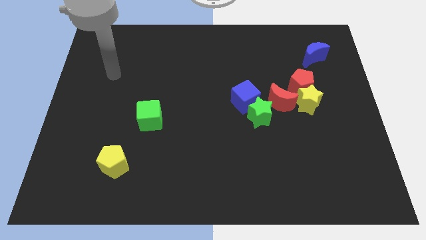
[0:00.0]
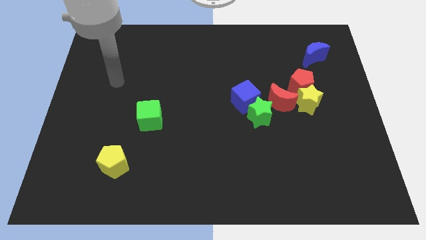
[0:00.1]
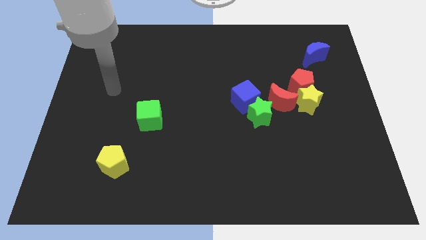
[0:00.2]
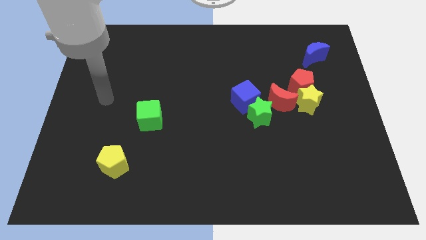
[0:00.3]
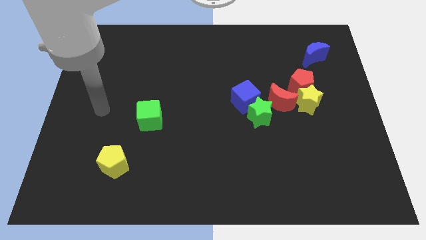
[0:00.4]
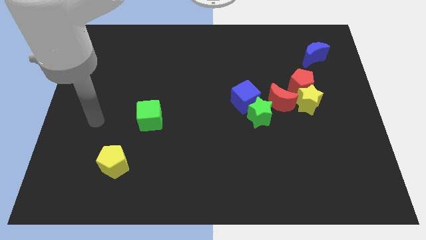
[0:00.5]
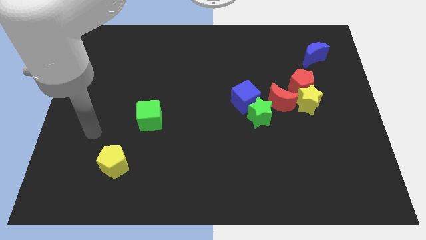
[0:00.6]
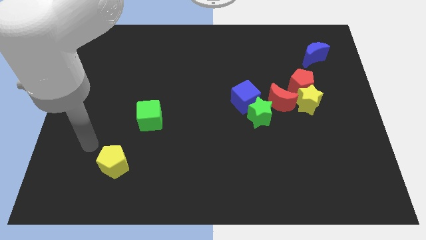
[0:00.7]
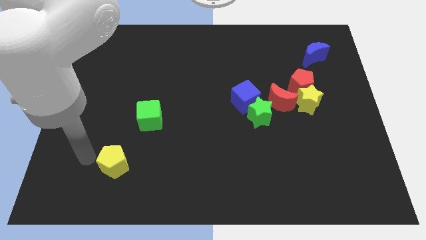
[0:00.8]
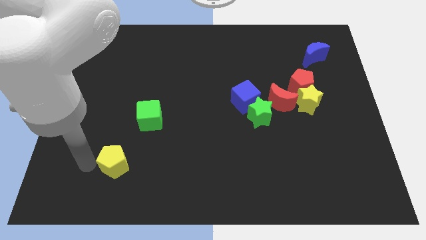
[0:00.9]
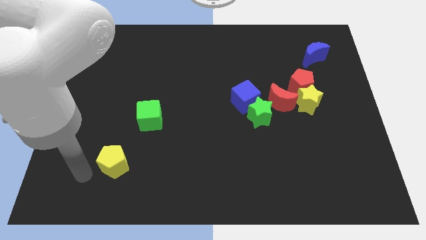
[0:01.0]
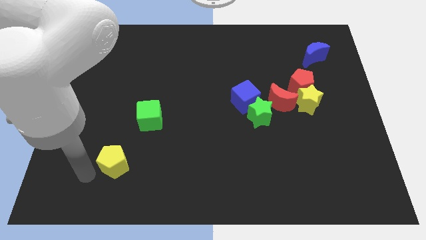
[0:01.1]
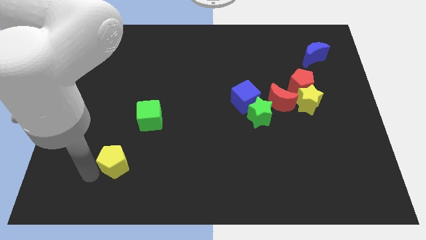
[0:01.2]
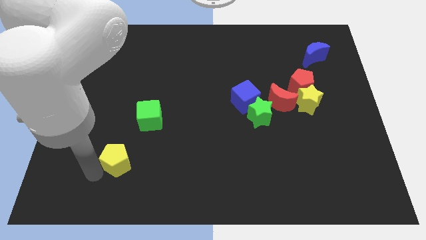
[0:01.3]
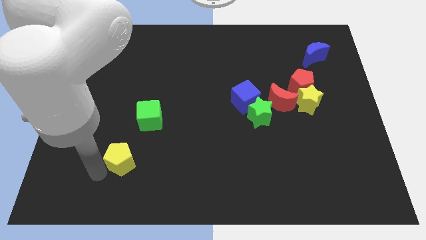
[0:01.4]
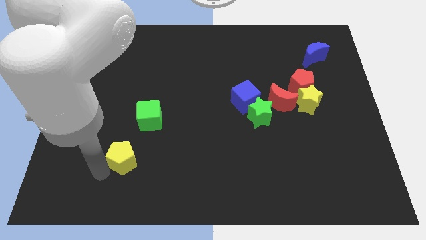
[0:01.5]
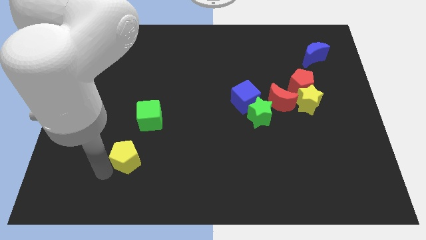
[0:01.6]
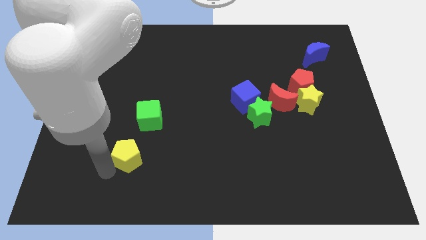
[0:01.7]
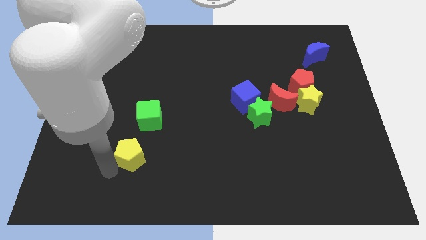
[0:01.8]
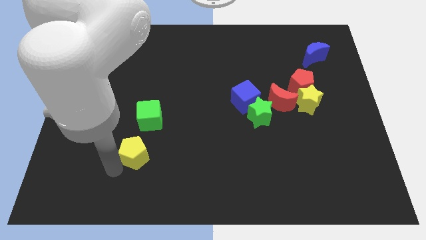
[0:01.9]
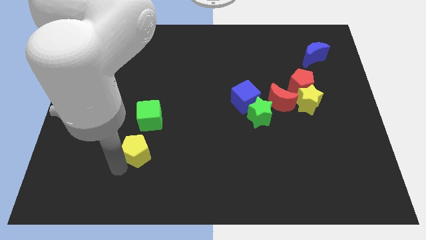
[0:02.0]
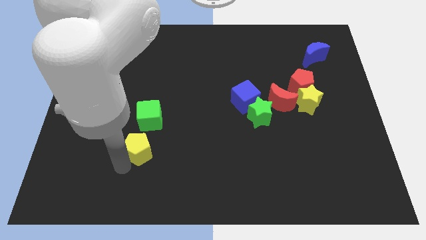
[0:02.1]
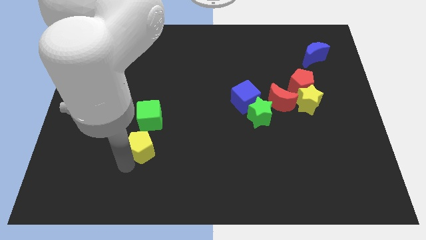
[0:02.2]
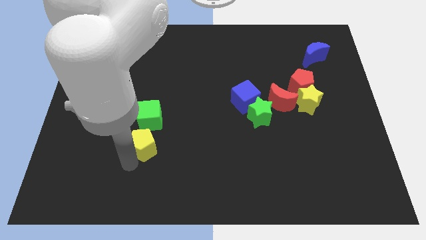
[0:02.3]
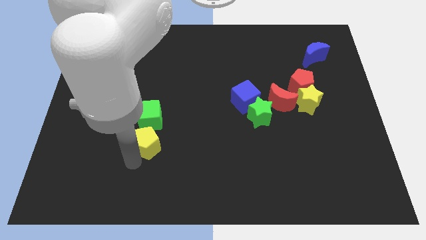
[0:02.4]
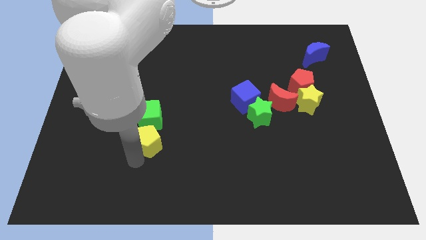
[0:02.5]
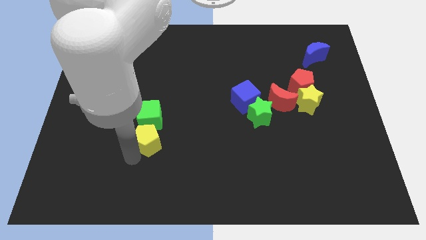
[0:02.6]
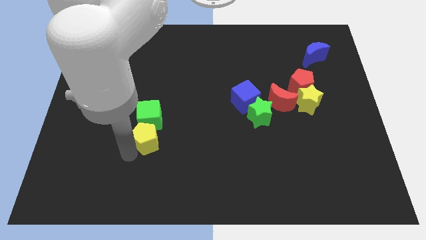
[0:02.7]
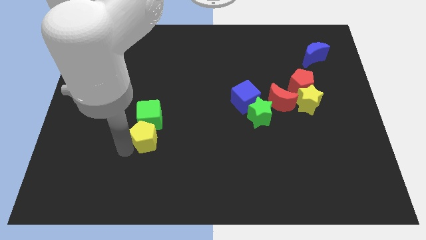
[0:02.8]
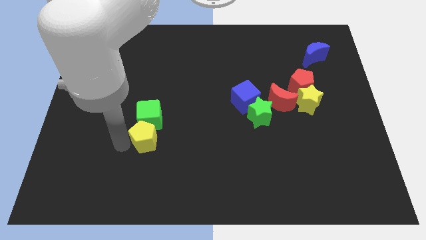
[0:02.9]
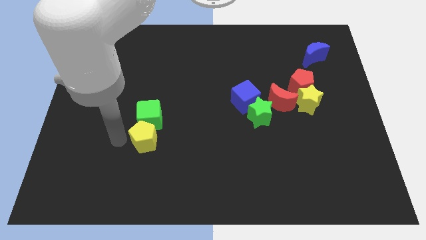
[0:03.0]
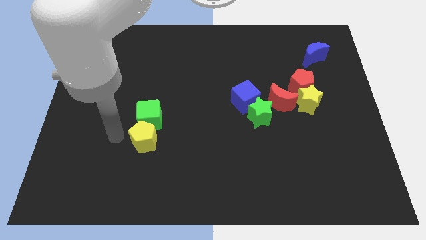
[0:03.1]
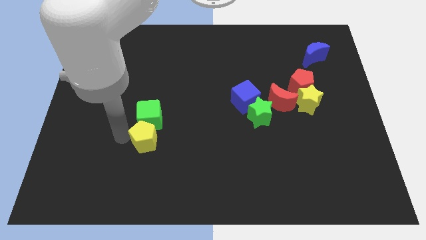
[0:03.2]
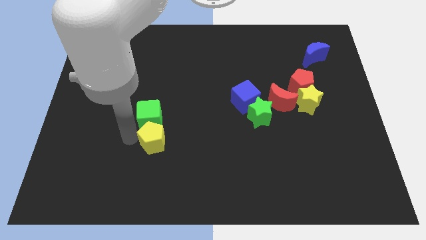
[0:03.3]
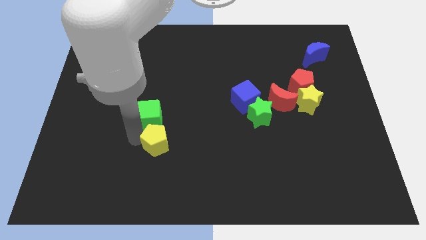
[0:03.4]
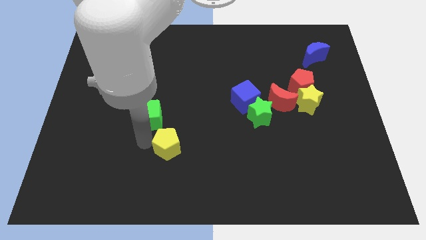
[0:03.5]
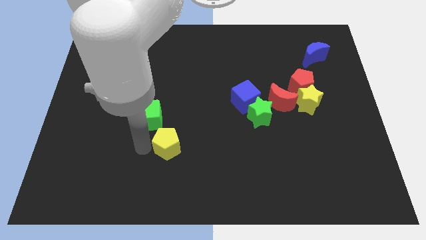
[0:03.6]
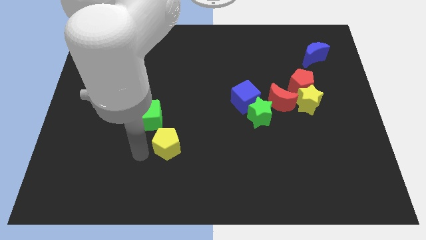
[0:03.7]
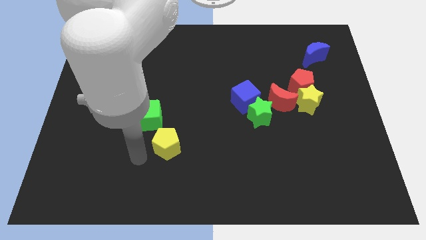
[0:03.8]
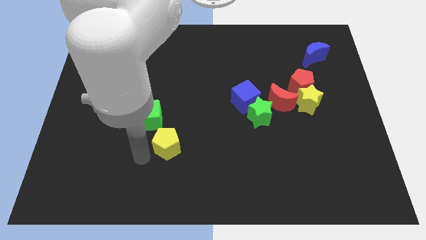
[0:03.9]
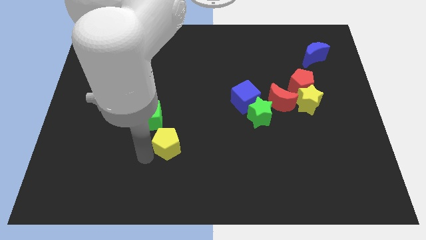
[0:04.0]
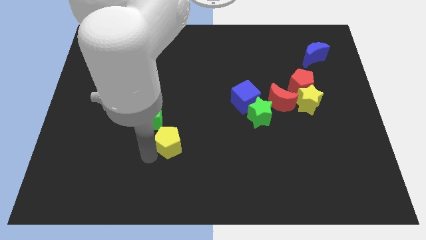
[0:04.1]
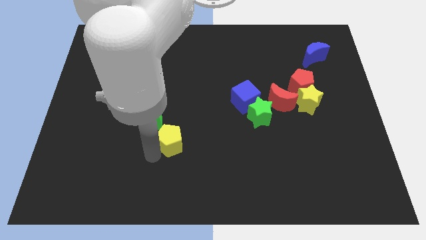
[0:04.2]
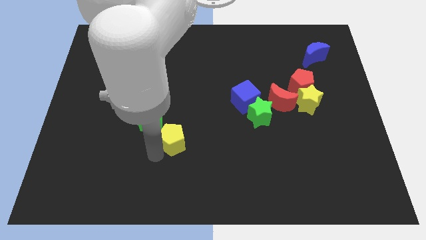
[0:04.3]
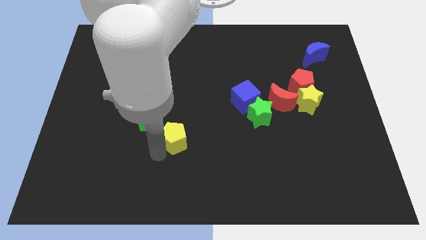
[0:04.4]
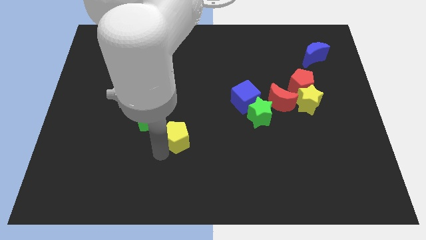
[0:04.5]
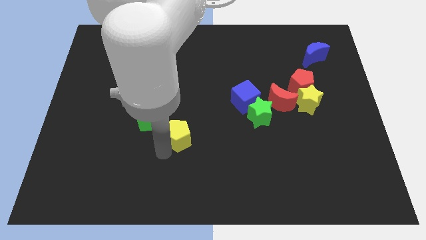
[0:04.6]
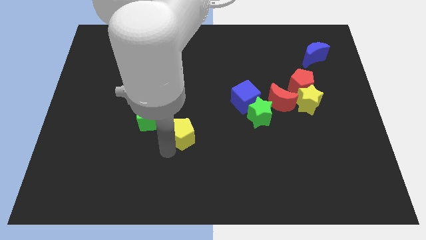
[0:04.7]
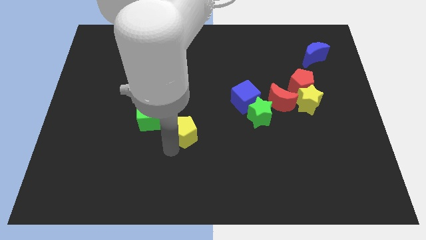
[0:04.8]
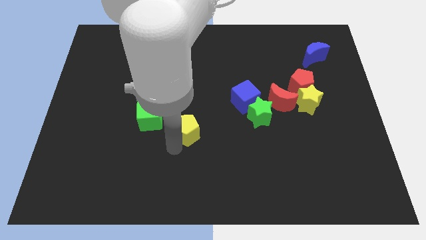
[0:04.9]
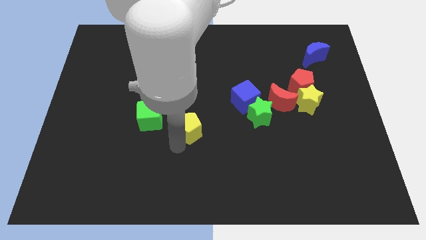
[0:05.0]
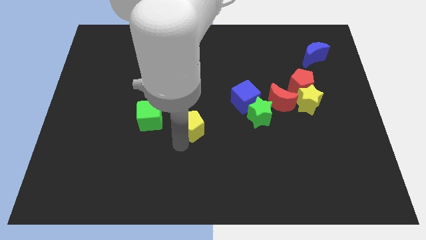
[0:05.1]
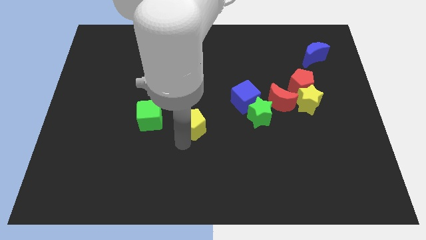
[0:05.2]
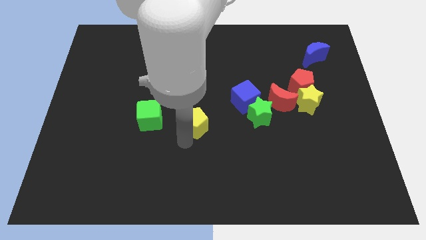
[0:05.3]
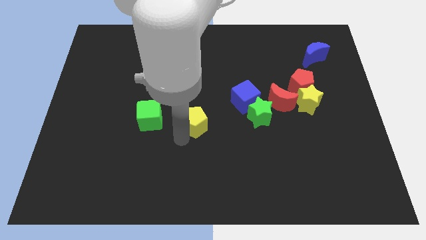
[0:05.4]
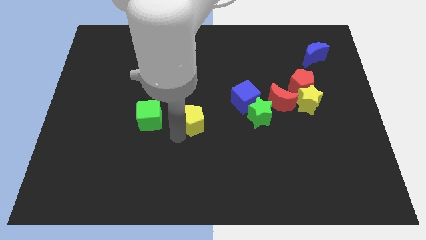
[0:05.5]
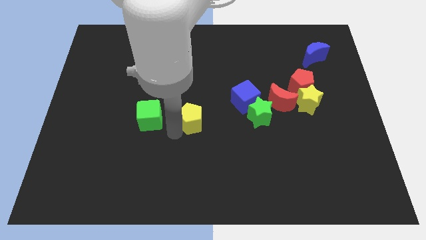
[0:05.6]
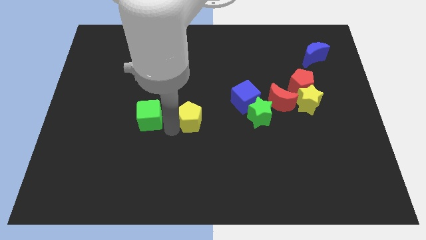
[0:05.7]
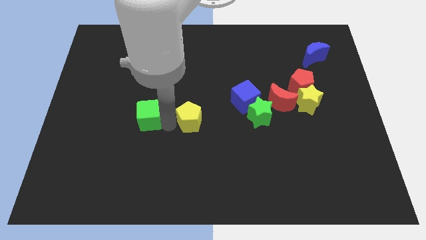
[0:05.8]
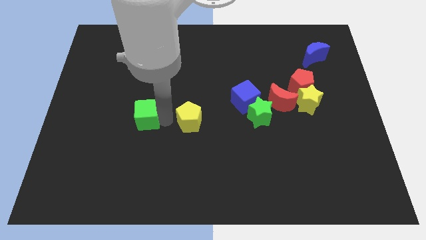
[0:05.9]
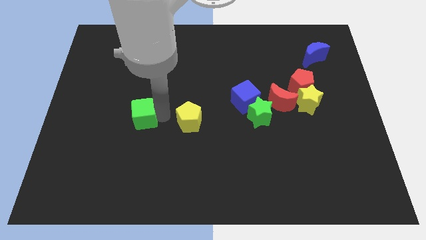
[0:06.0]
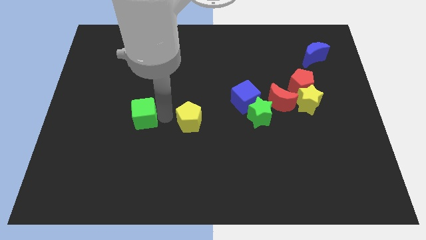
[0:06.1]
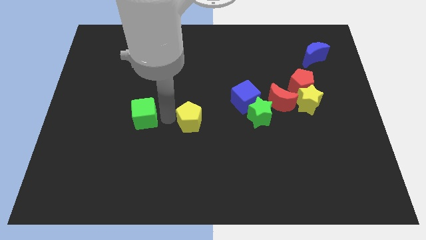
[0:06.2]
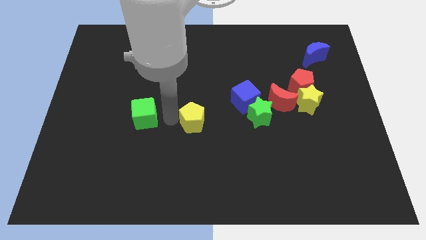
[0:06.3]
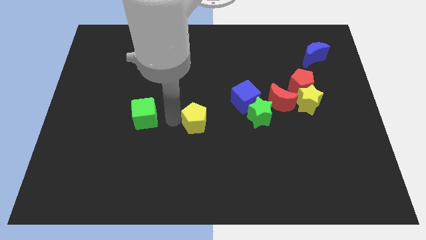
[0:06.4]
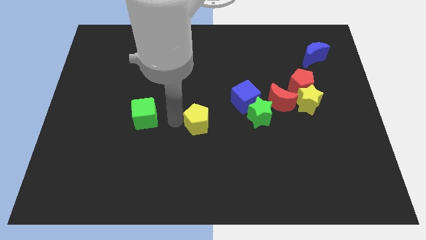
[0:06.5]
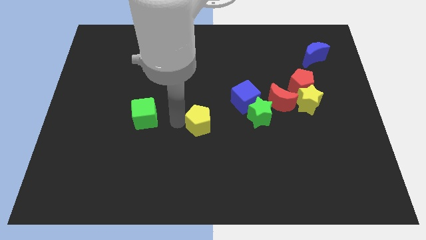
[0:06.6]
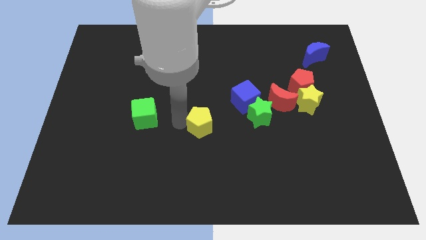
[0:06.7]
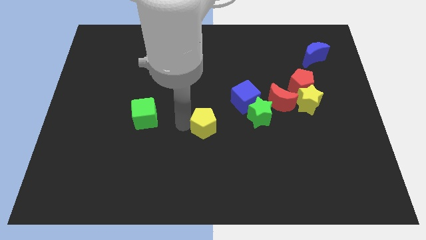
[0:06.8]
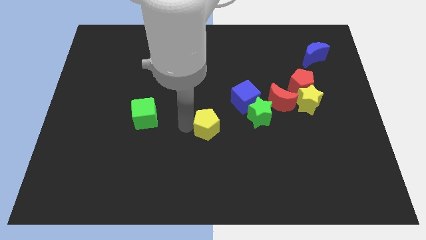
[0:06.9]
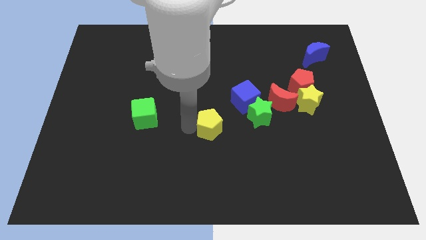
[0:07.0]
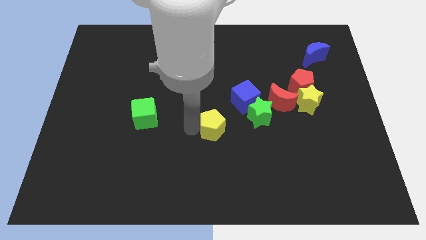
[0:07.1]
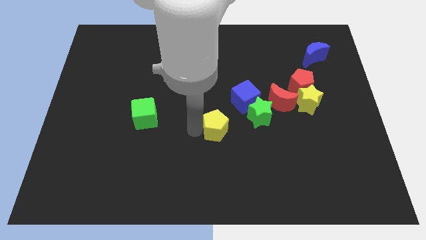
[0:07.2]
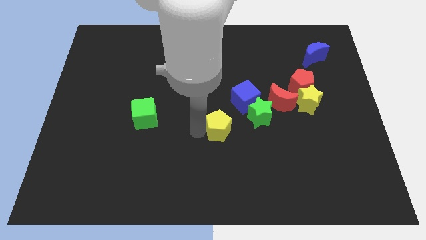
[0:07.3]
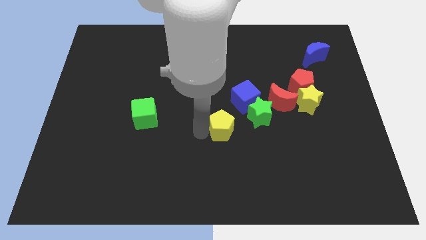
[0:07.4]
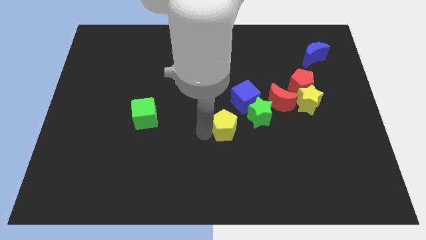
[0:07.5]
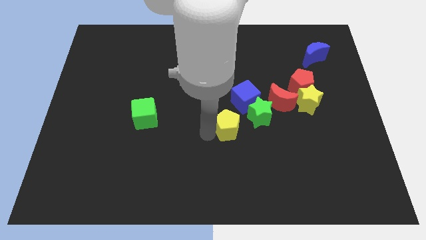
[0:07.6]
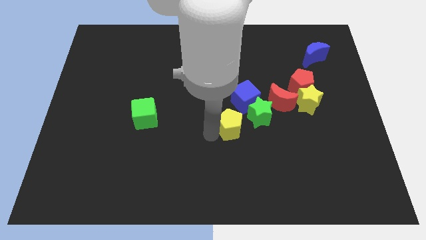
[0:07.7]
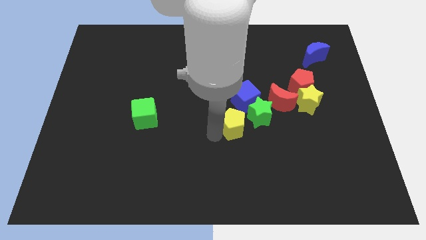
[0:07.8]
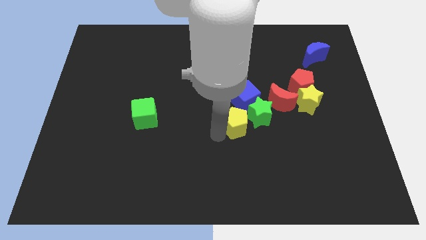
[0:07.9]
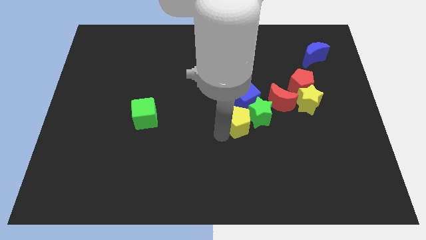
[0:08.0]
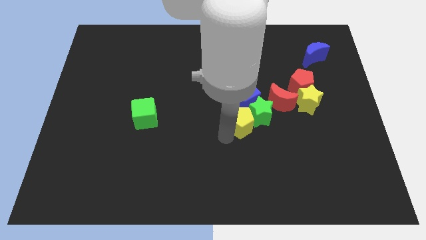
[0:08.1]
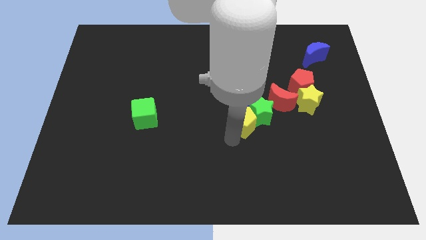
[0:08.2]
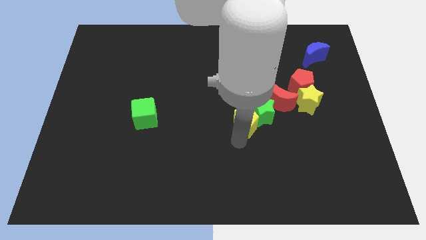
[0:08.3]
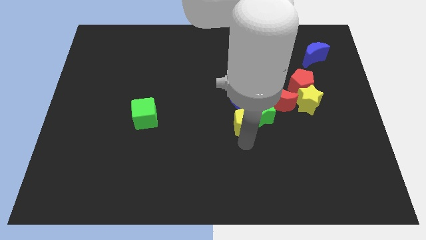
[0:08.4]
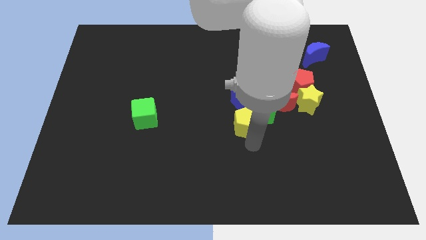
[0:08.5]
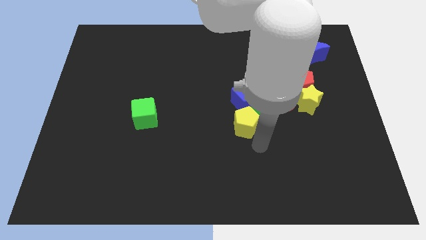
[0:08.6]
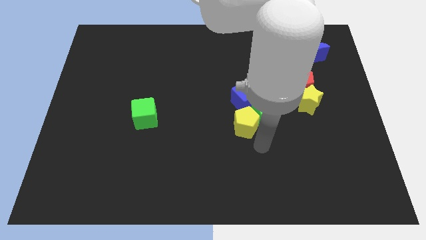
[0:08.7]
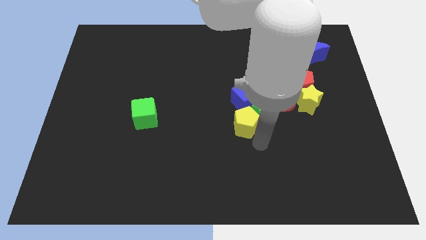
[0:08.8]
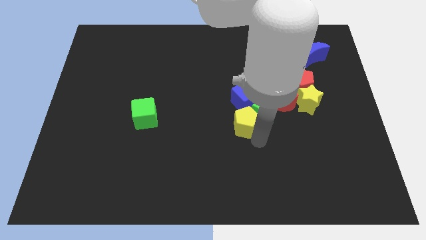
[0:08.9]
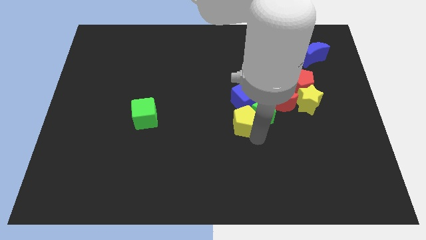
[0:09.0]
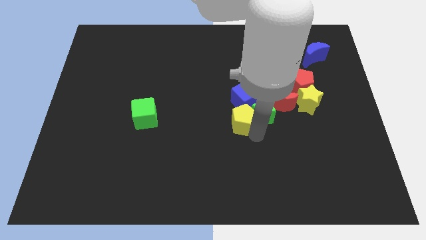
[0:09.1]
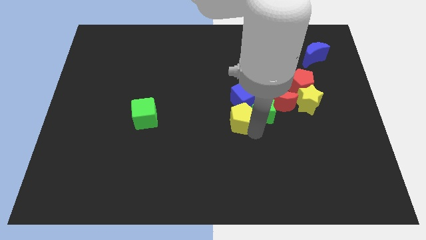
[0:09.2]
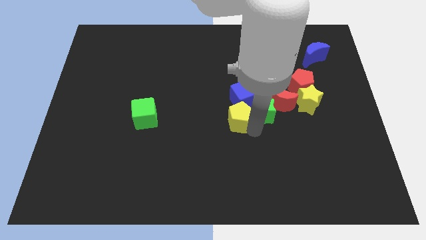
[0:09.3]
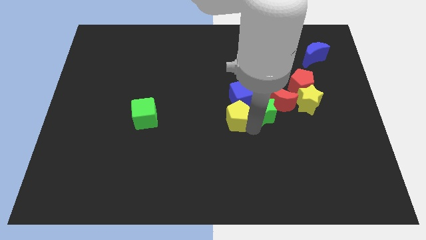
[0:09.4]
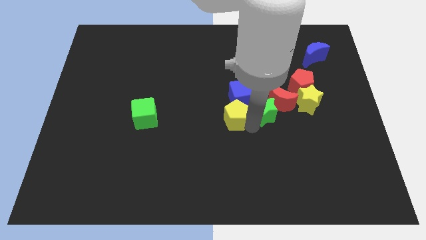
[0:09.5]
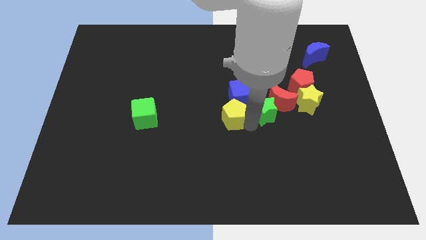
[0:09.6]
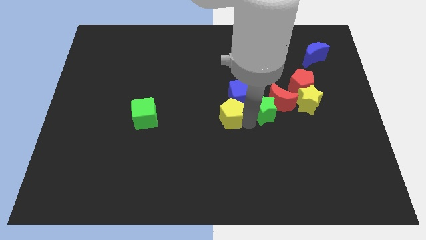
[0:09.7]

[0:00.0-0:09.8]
put the yellow pentagon close to the blue cube
